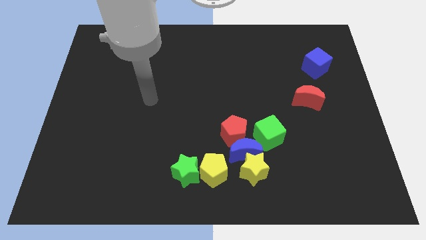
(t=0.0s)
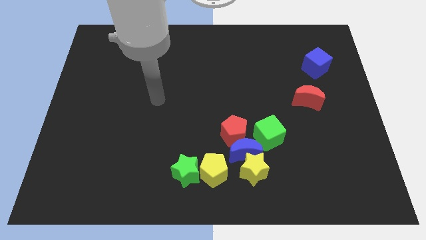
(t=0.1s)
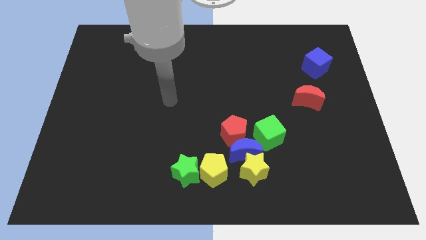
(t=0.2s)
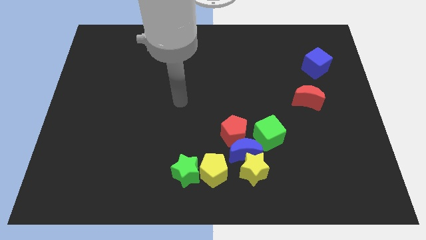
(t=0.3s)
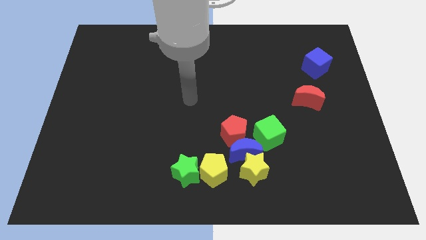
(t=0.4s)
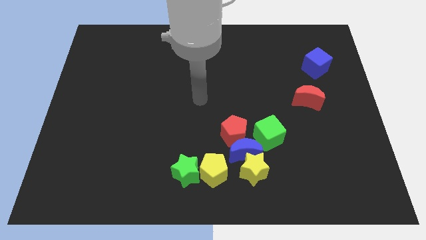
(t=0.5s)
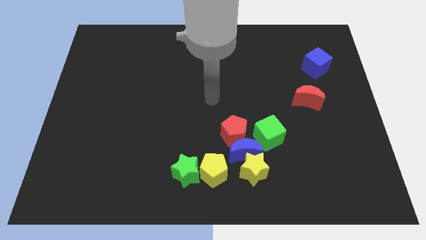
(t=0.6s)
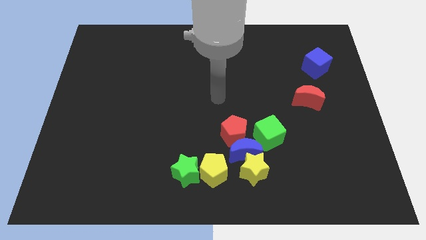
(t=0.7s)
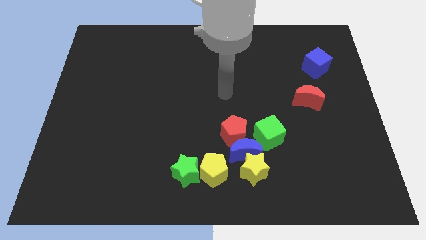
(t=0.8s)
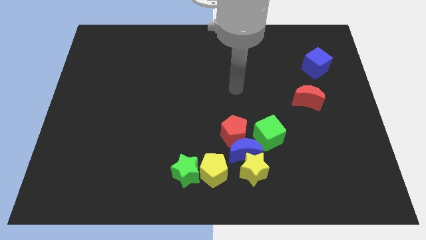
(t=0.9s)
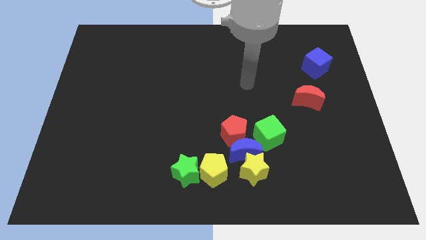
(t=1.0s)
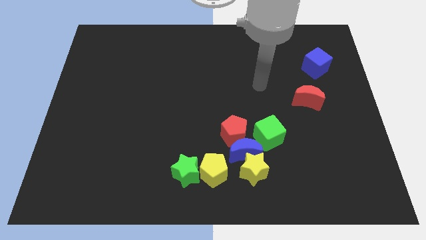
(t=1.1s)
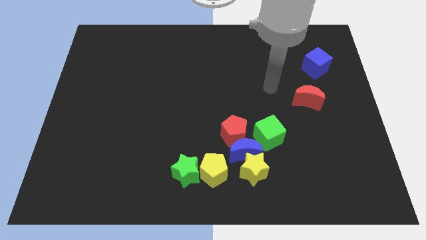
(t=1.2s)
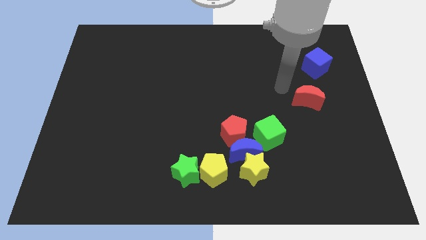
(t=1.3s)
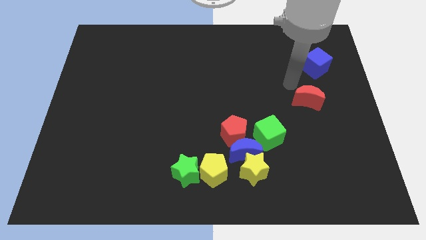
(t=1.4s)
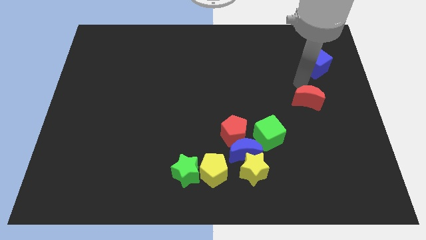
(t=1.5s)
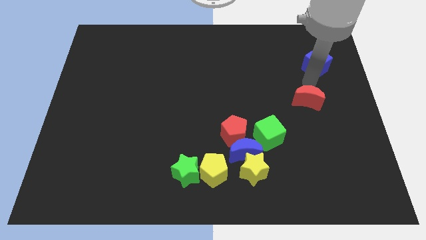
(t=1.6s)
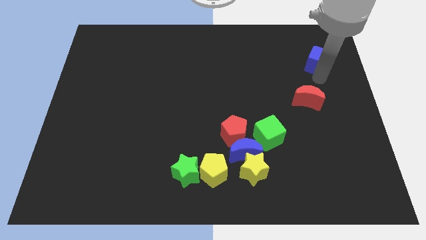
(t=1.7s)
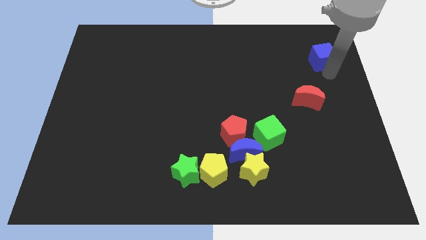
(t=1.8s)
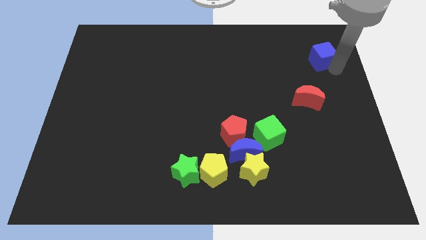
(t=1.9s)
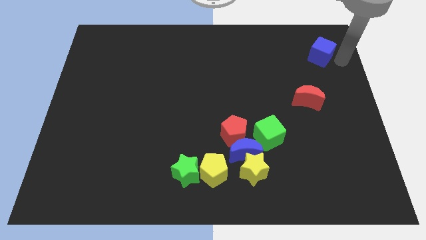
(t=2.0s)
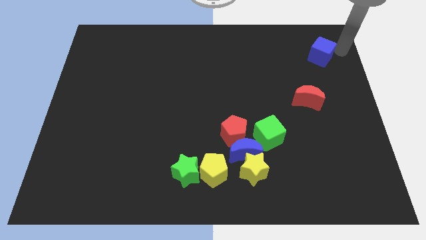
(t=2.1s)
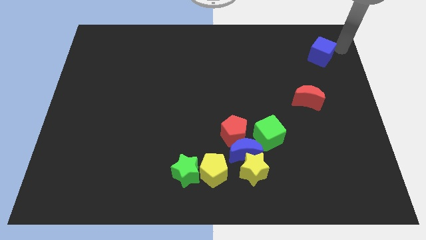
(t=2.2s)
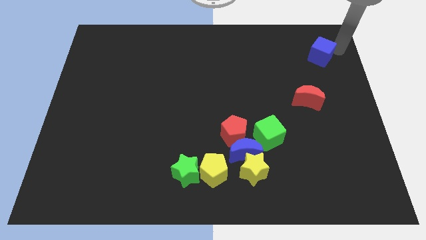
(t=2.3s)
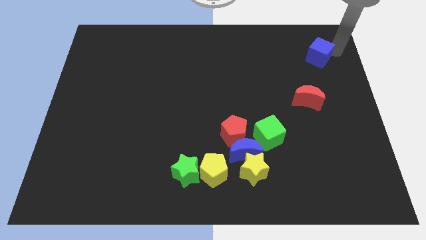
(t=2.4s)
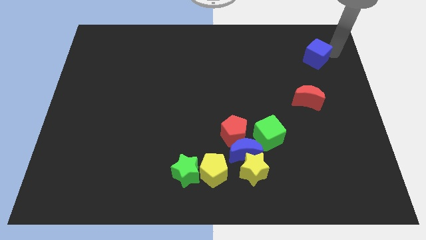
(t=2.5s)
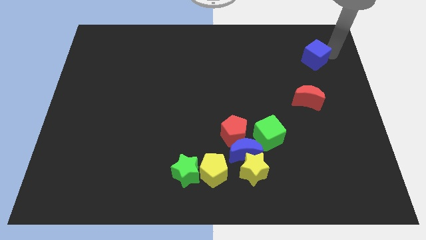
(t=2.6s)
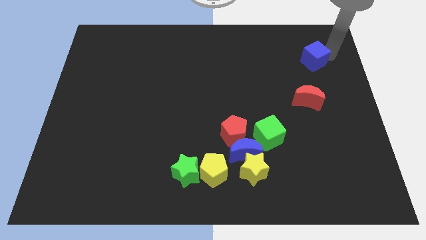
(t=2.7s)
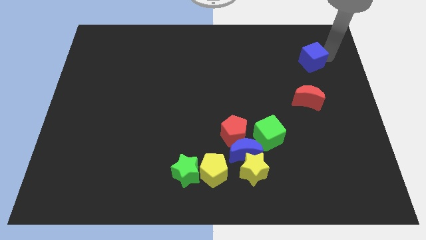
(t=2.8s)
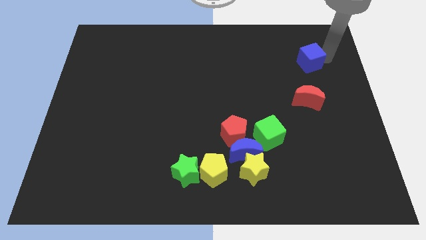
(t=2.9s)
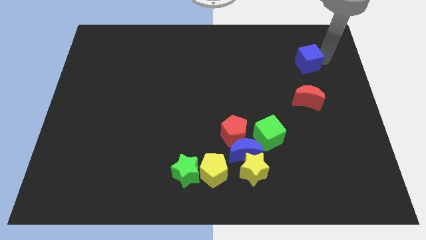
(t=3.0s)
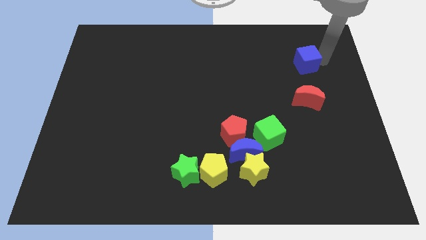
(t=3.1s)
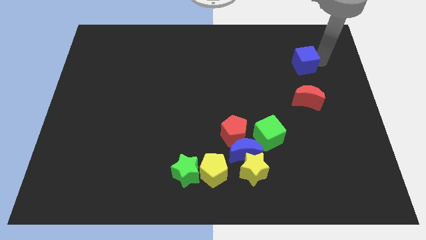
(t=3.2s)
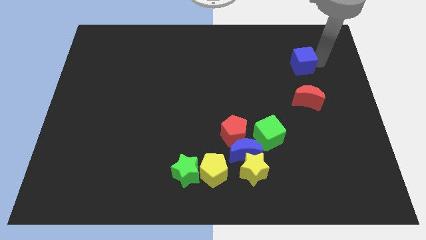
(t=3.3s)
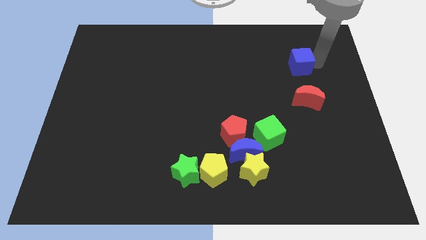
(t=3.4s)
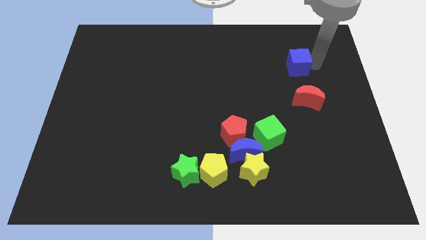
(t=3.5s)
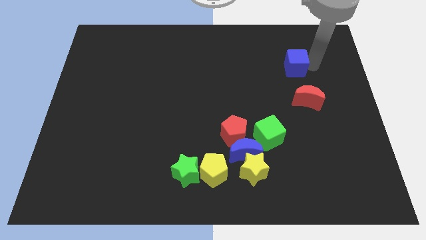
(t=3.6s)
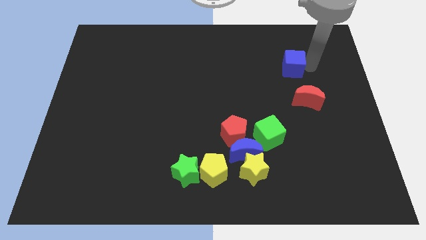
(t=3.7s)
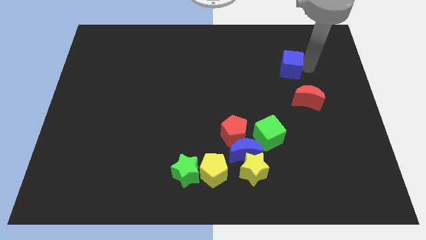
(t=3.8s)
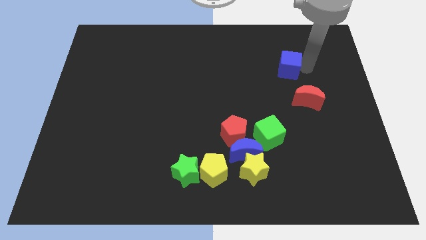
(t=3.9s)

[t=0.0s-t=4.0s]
slightly move the blue cube to the left

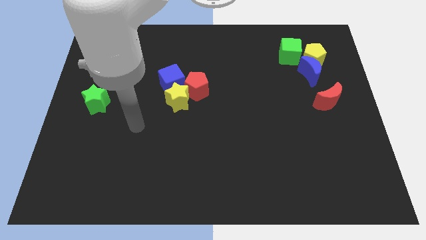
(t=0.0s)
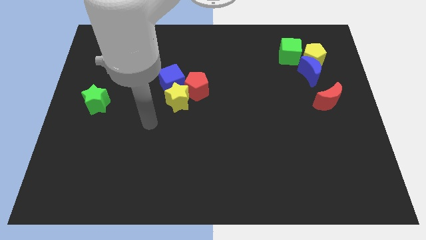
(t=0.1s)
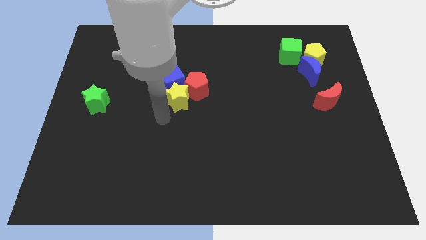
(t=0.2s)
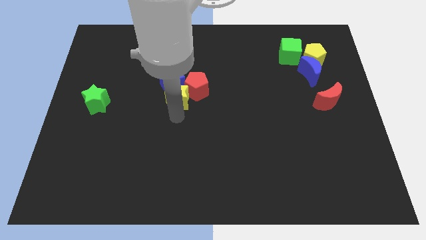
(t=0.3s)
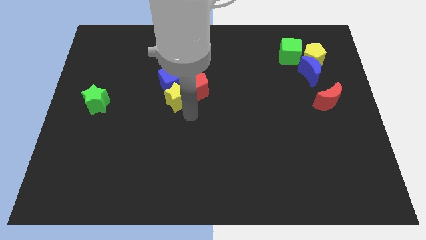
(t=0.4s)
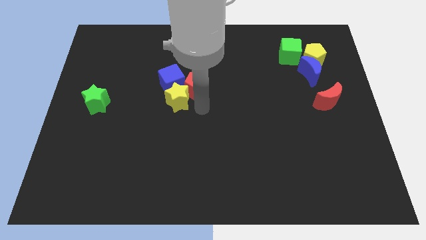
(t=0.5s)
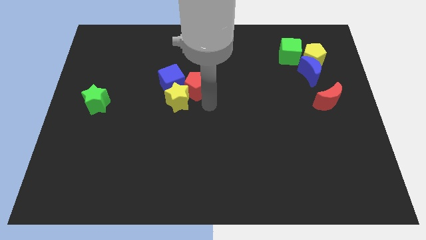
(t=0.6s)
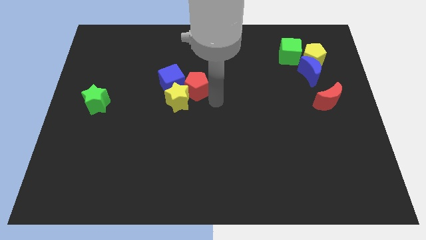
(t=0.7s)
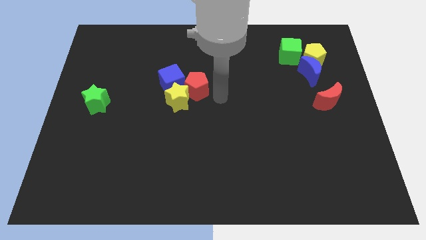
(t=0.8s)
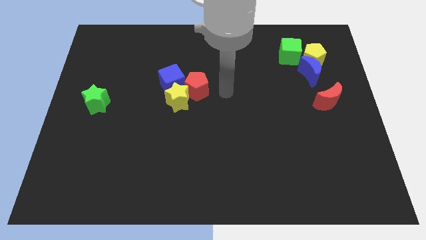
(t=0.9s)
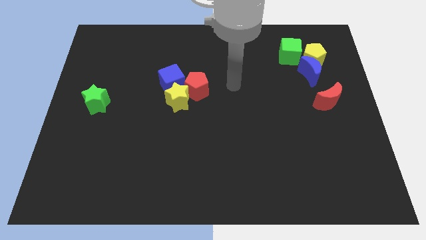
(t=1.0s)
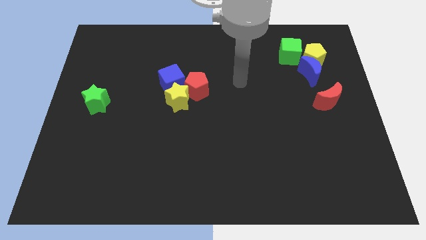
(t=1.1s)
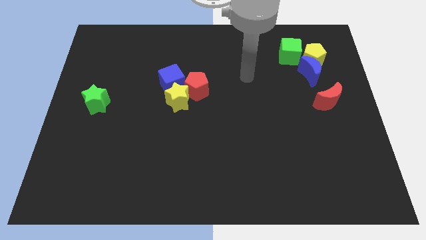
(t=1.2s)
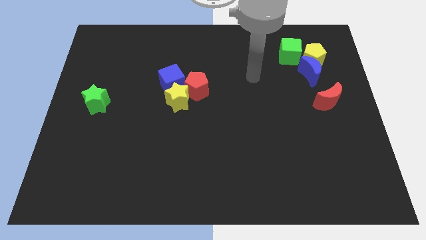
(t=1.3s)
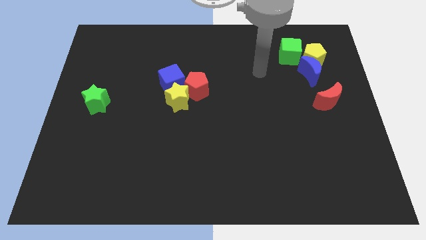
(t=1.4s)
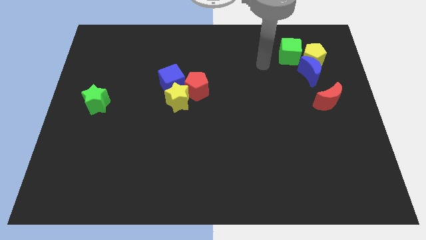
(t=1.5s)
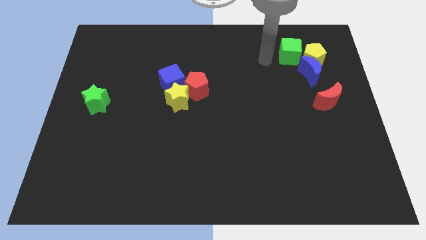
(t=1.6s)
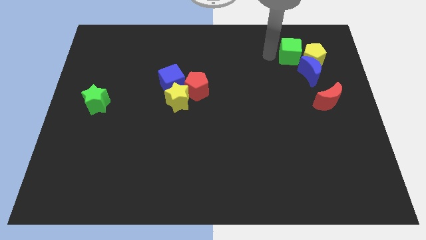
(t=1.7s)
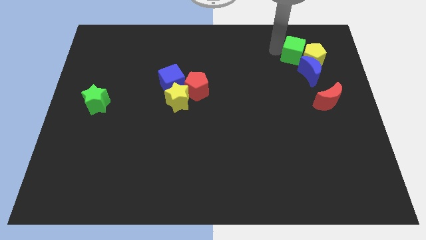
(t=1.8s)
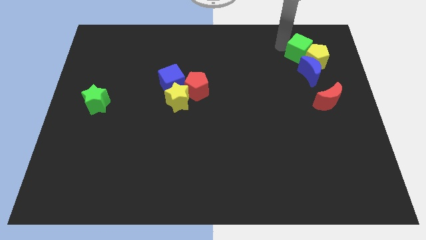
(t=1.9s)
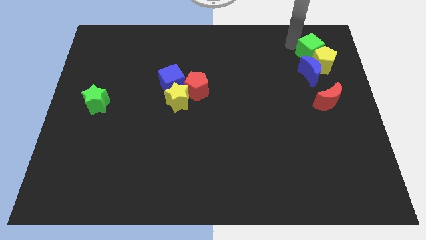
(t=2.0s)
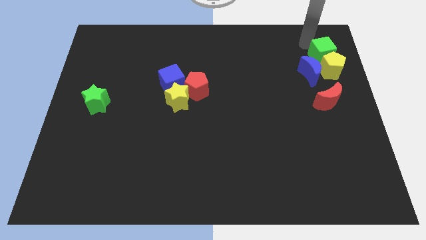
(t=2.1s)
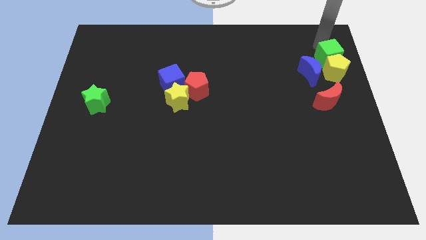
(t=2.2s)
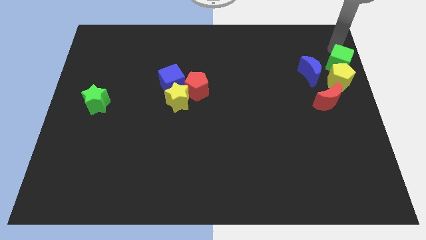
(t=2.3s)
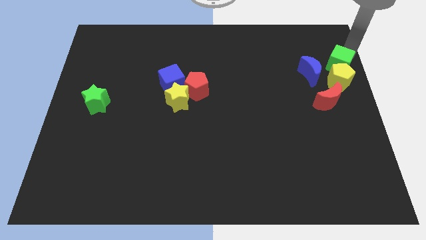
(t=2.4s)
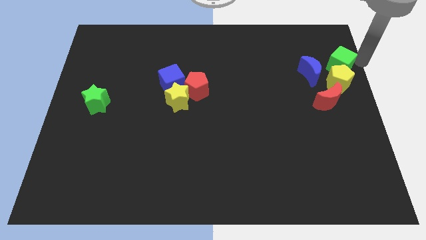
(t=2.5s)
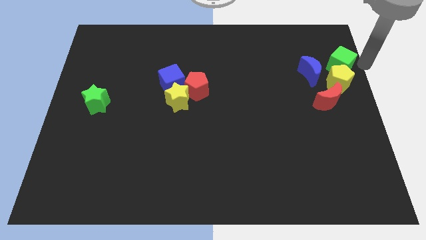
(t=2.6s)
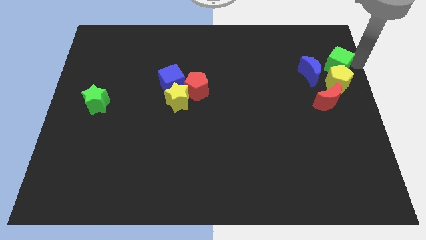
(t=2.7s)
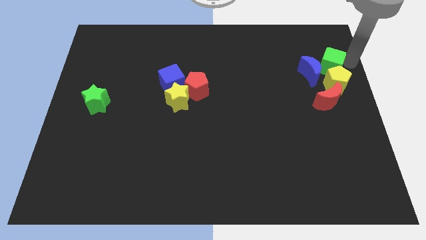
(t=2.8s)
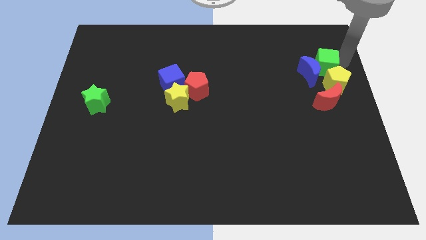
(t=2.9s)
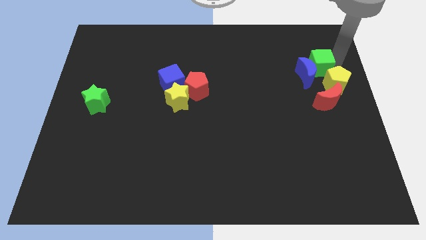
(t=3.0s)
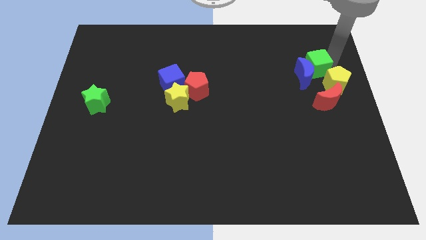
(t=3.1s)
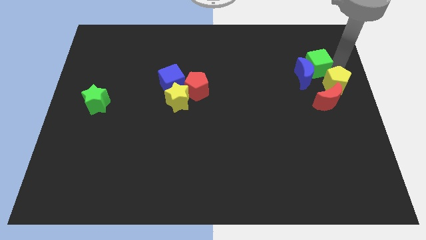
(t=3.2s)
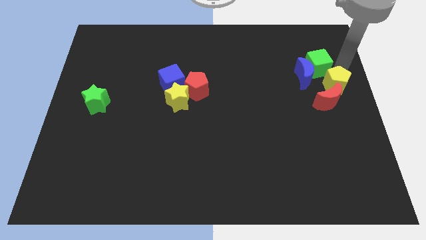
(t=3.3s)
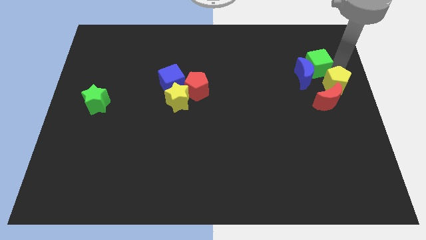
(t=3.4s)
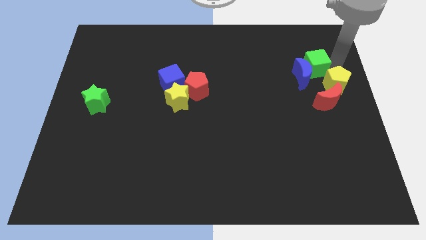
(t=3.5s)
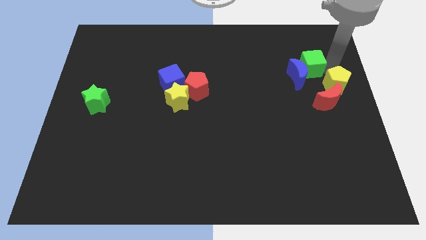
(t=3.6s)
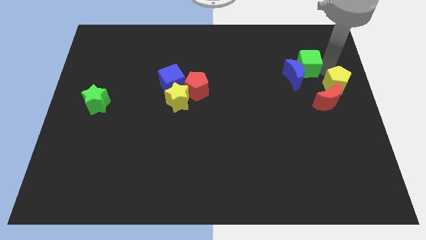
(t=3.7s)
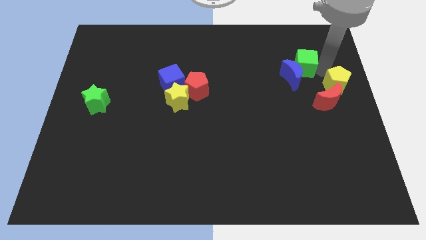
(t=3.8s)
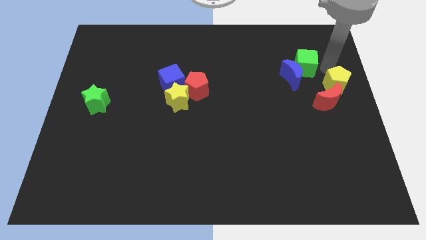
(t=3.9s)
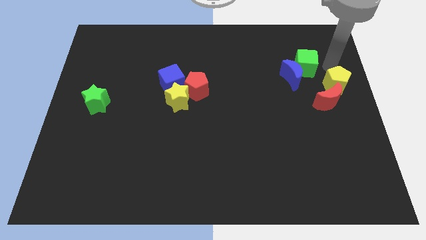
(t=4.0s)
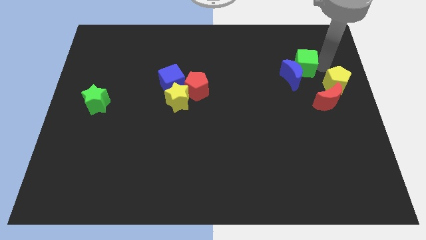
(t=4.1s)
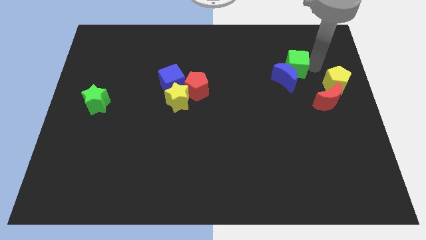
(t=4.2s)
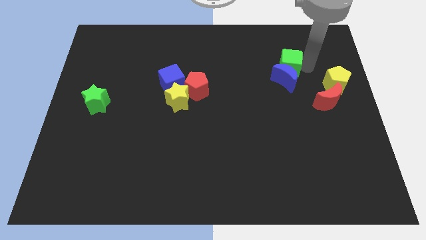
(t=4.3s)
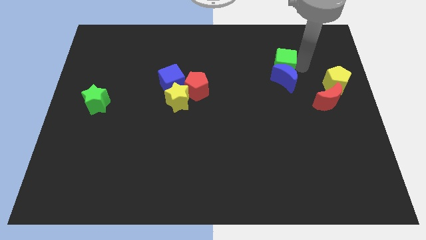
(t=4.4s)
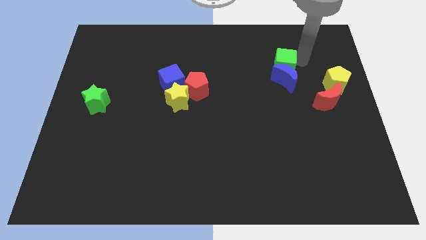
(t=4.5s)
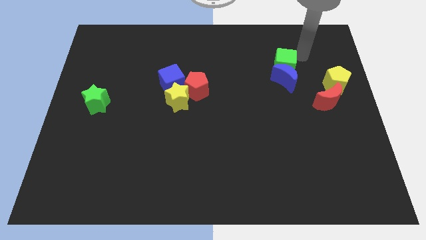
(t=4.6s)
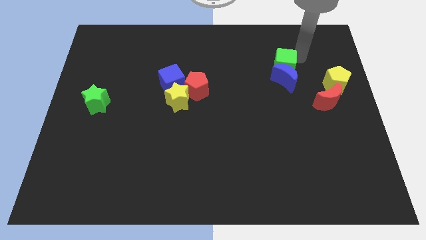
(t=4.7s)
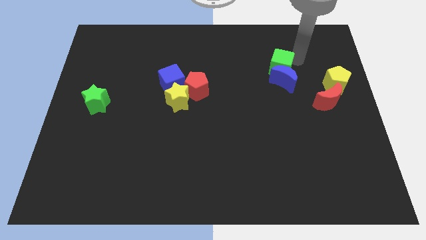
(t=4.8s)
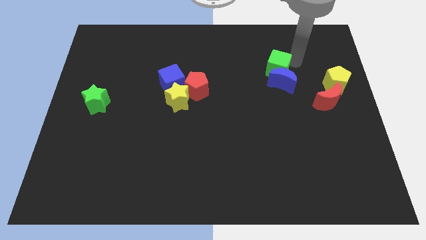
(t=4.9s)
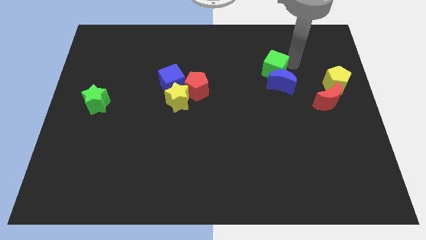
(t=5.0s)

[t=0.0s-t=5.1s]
slide the green cube downwards and then left a little
